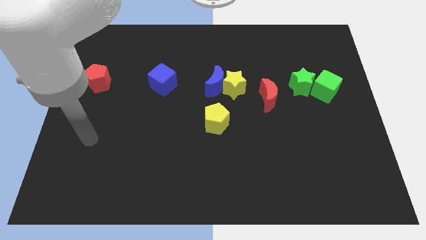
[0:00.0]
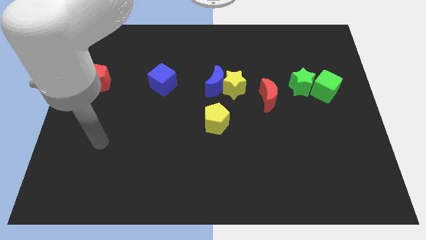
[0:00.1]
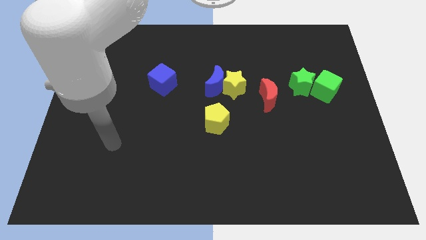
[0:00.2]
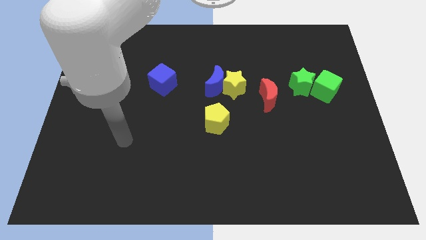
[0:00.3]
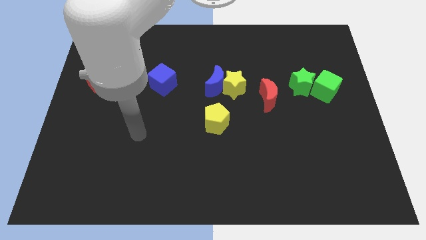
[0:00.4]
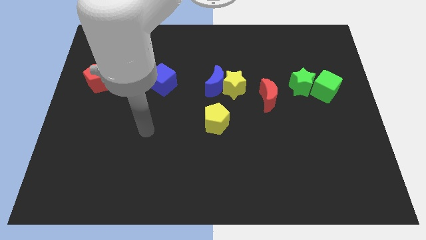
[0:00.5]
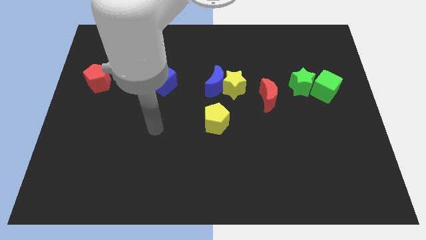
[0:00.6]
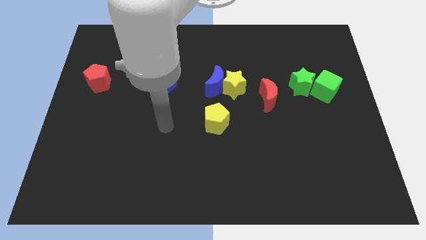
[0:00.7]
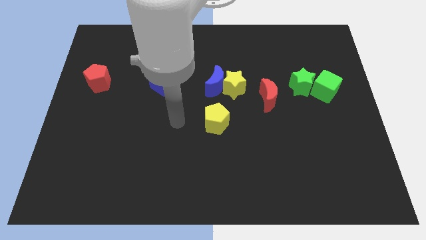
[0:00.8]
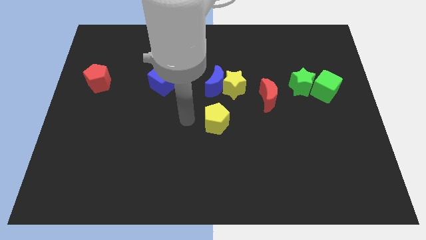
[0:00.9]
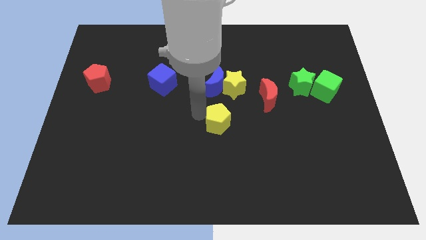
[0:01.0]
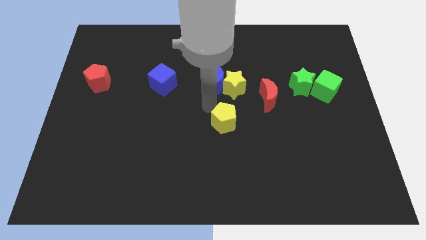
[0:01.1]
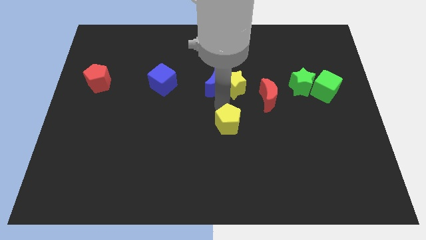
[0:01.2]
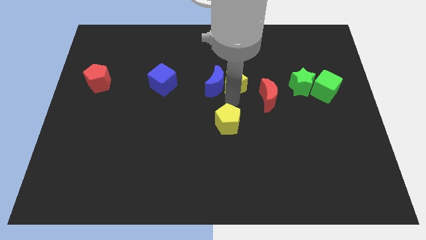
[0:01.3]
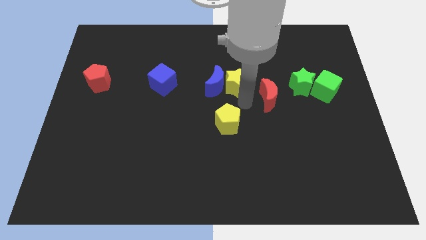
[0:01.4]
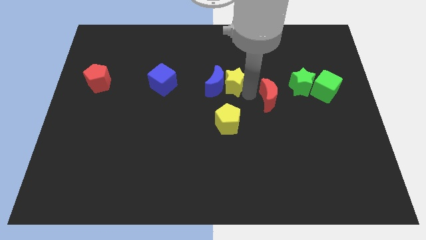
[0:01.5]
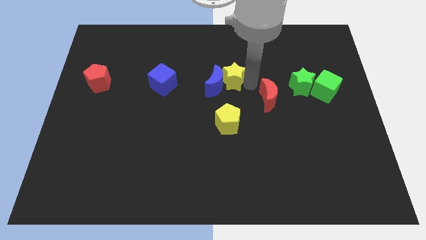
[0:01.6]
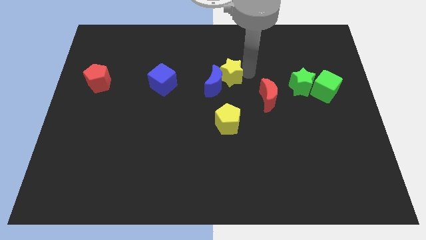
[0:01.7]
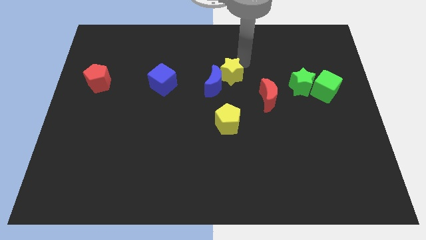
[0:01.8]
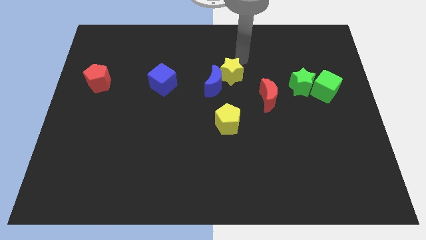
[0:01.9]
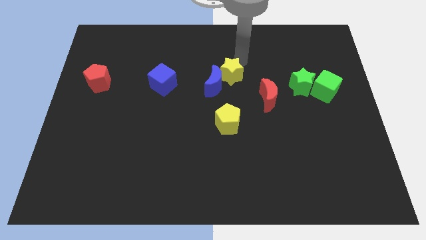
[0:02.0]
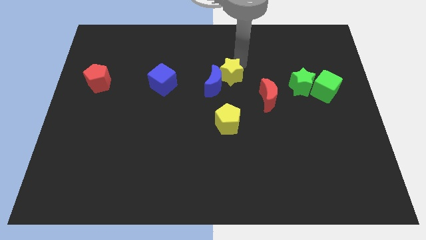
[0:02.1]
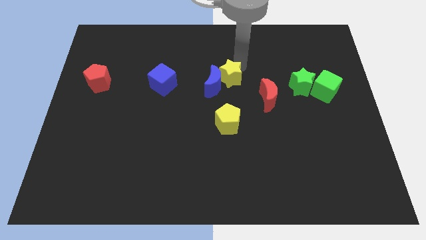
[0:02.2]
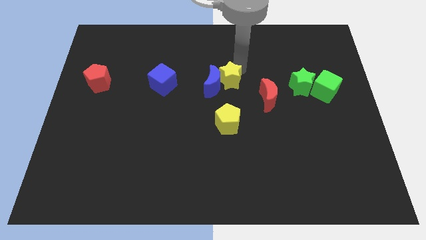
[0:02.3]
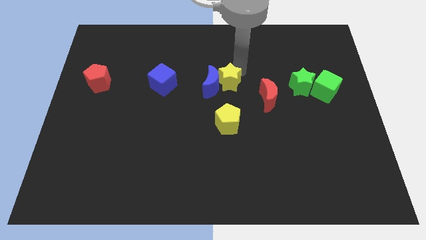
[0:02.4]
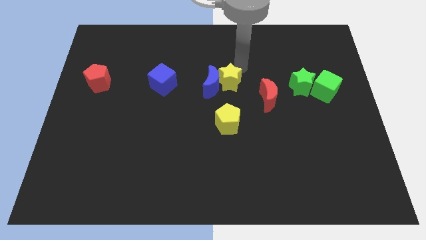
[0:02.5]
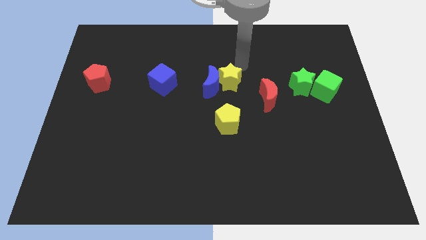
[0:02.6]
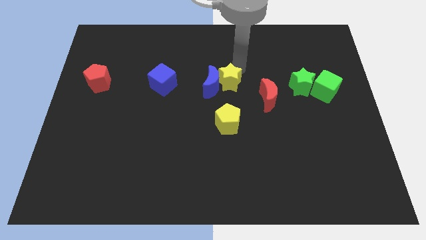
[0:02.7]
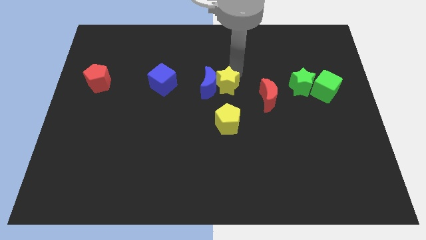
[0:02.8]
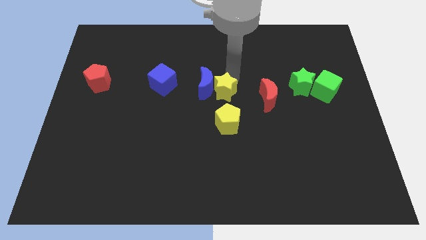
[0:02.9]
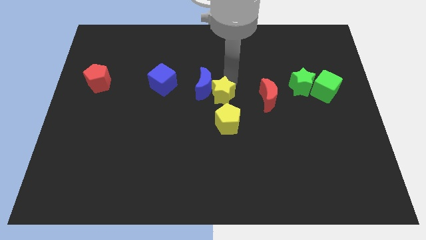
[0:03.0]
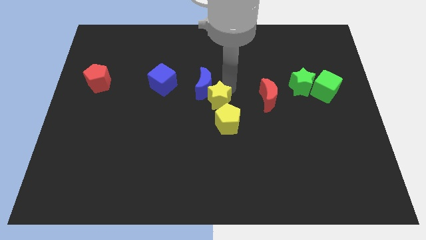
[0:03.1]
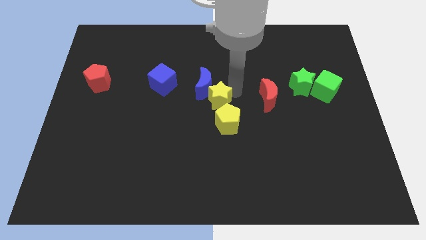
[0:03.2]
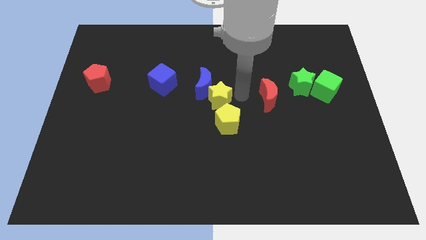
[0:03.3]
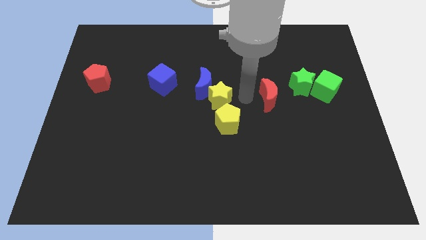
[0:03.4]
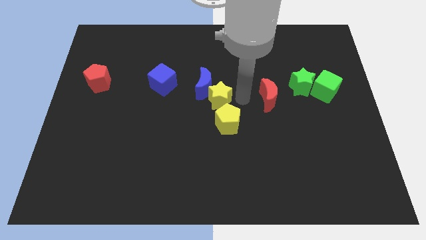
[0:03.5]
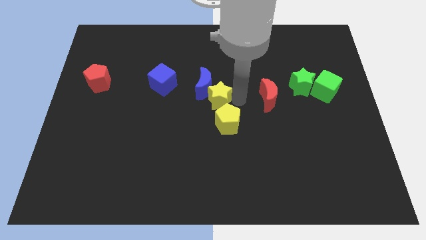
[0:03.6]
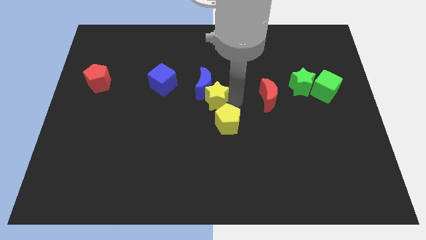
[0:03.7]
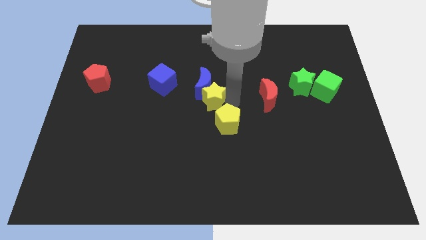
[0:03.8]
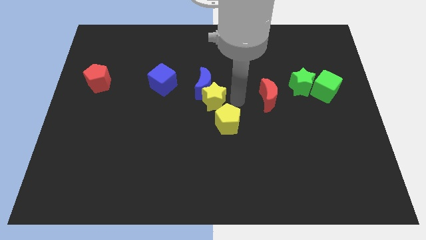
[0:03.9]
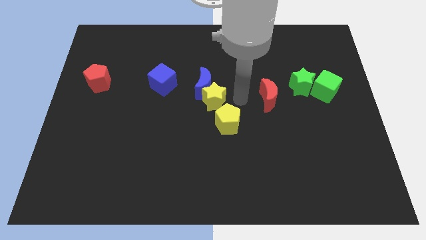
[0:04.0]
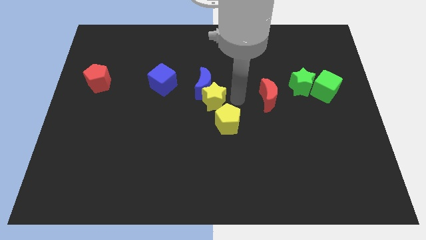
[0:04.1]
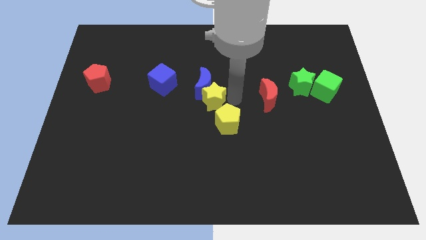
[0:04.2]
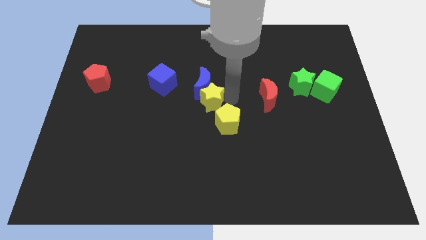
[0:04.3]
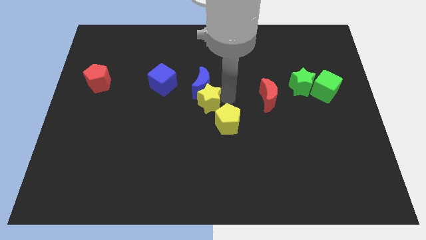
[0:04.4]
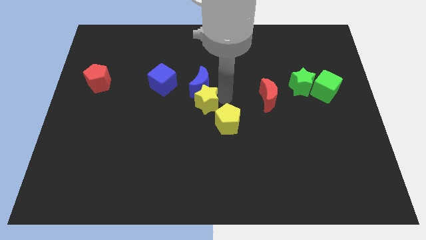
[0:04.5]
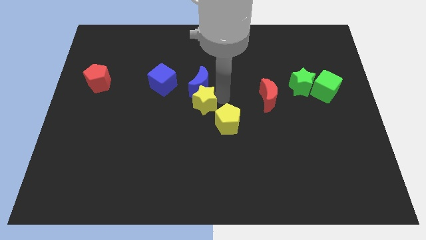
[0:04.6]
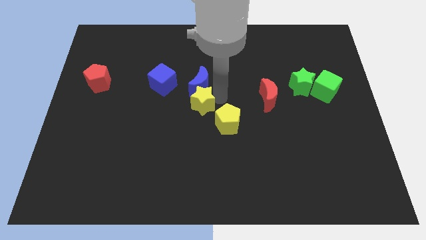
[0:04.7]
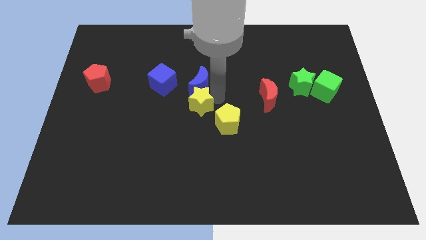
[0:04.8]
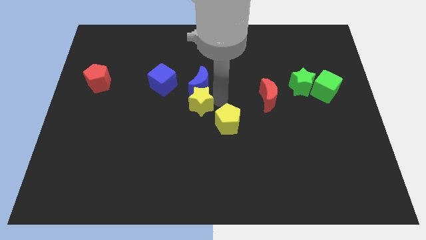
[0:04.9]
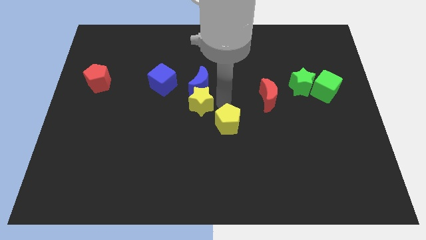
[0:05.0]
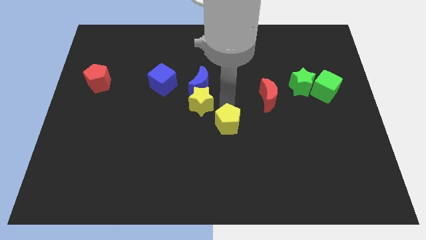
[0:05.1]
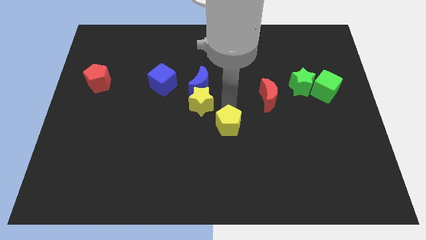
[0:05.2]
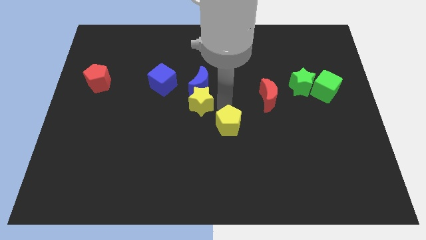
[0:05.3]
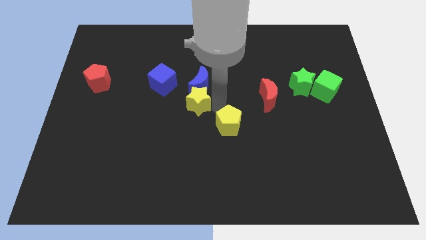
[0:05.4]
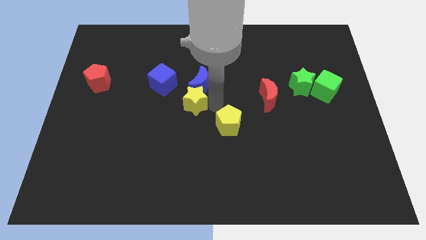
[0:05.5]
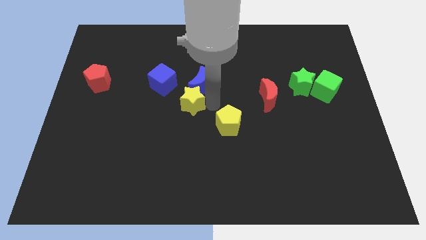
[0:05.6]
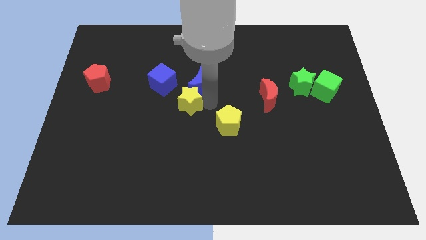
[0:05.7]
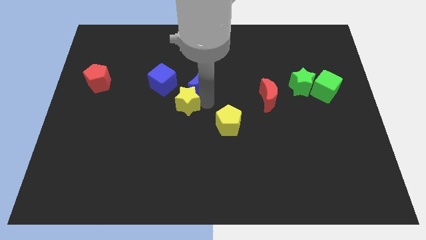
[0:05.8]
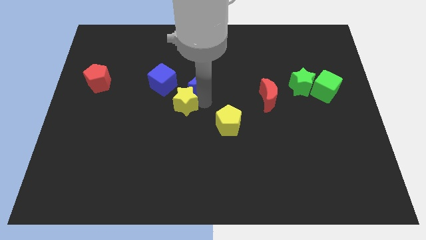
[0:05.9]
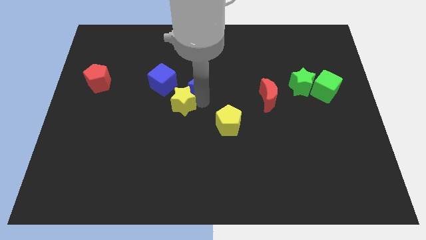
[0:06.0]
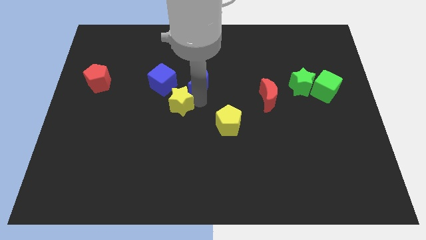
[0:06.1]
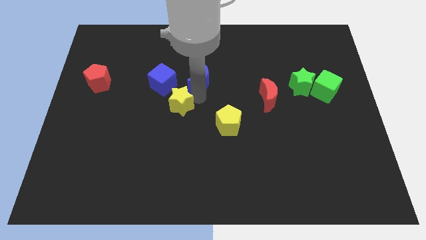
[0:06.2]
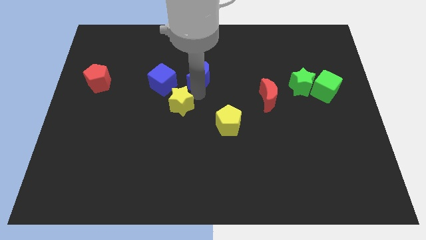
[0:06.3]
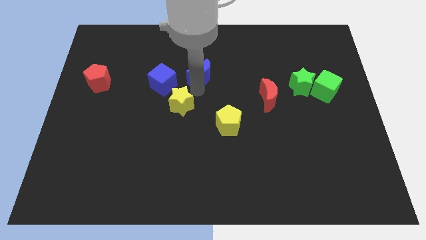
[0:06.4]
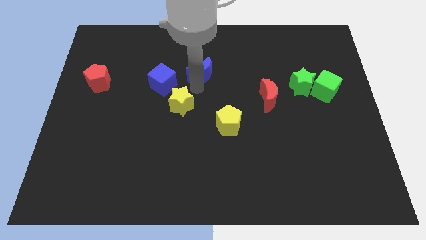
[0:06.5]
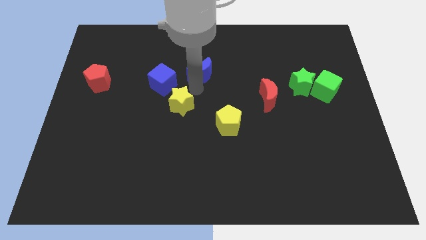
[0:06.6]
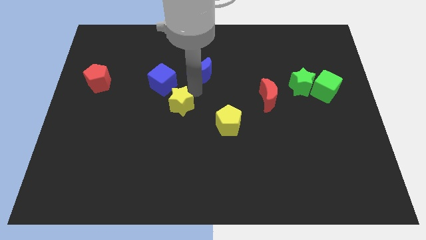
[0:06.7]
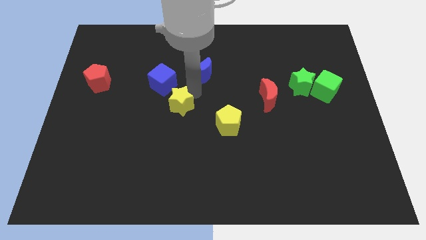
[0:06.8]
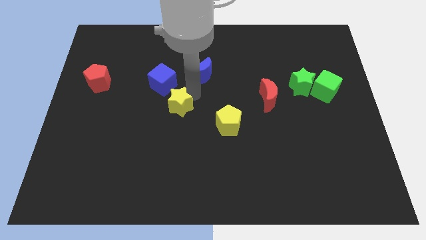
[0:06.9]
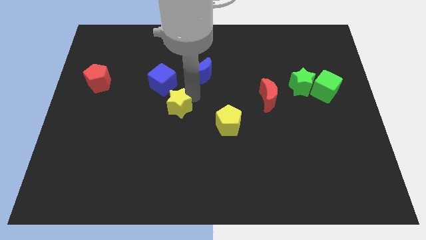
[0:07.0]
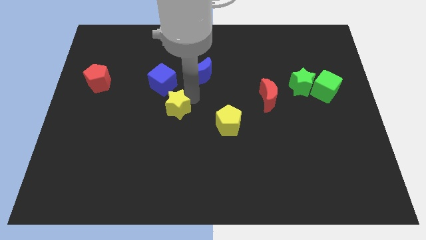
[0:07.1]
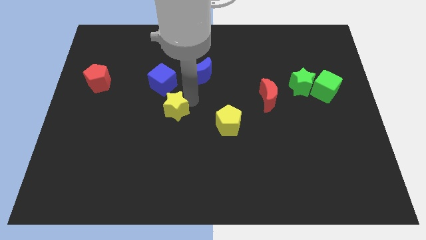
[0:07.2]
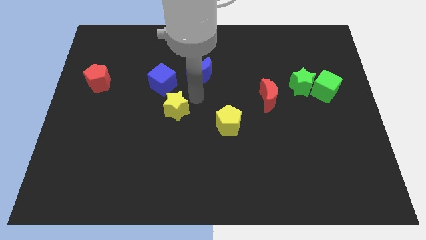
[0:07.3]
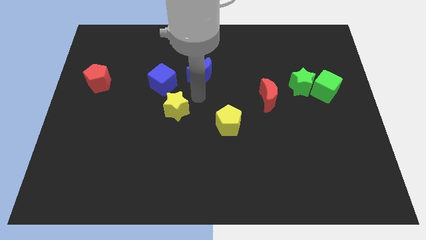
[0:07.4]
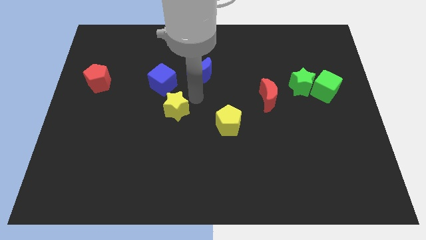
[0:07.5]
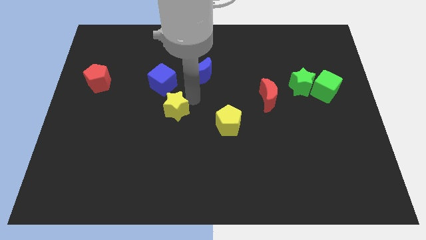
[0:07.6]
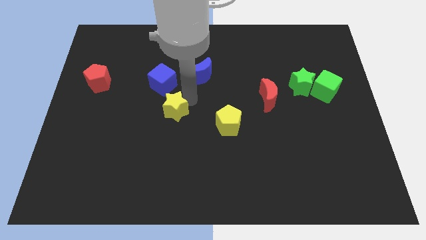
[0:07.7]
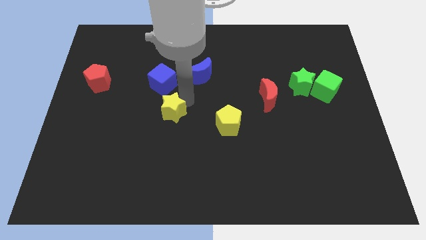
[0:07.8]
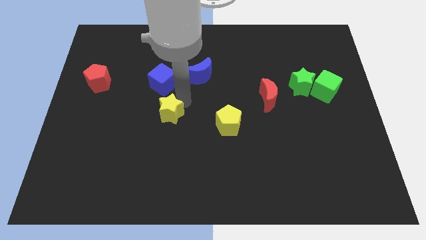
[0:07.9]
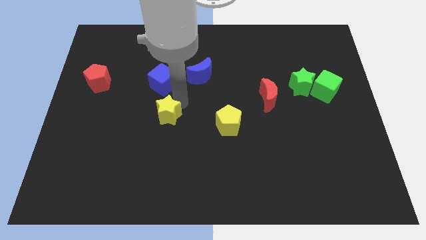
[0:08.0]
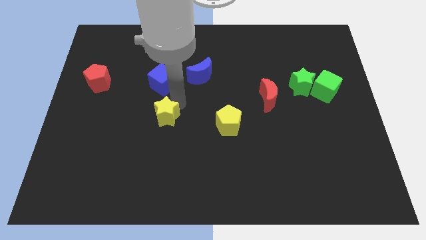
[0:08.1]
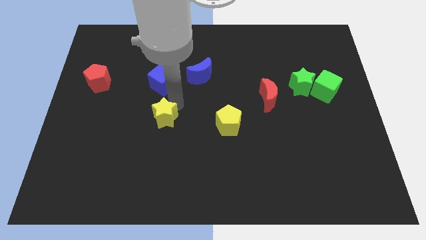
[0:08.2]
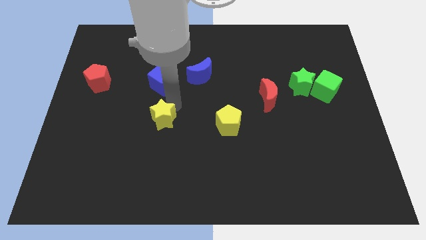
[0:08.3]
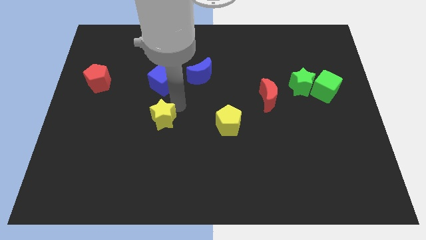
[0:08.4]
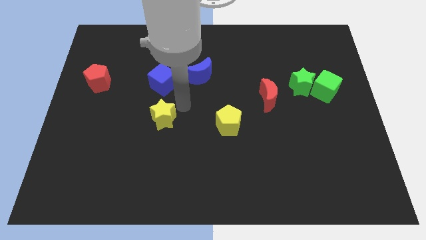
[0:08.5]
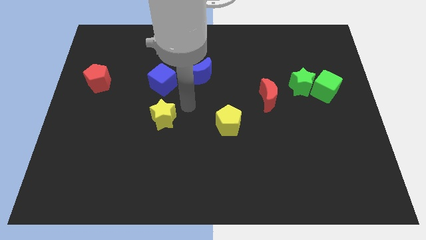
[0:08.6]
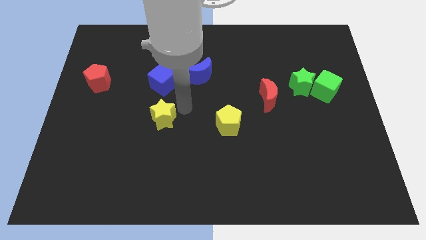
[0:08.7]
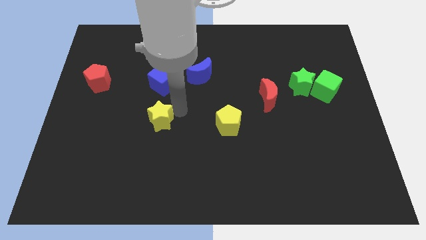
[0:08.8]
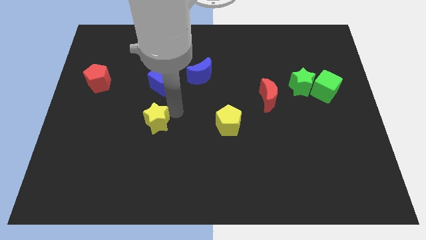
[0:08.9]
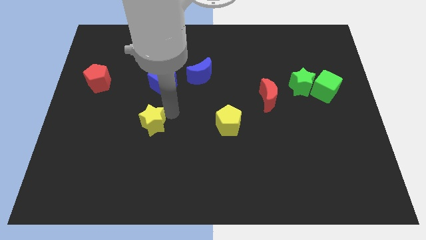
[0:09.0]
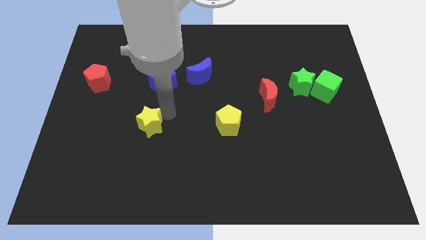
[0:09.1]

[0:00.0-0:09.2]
push the yellow star downwards and left
